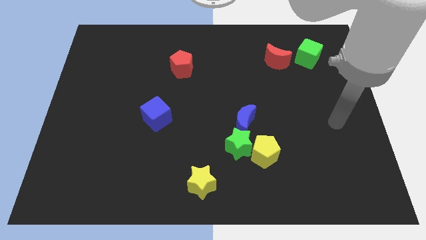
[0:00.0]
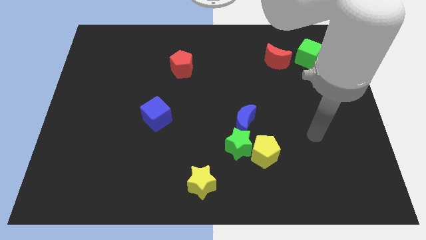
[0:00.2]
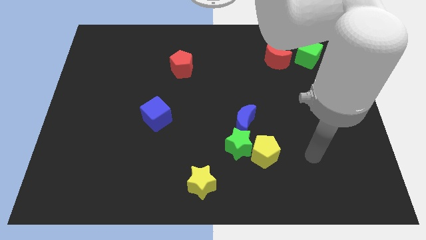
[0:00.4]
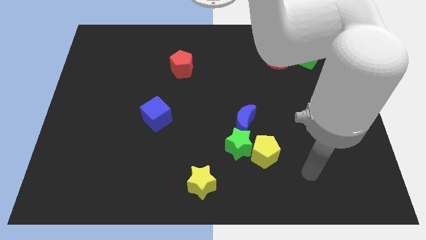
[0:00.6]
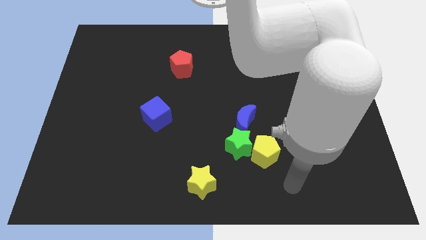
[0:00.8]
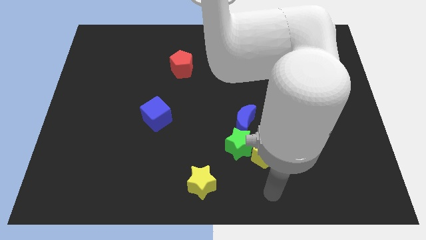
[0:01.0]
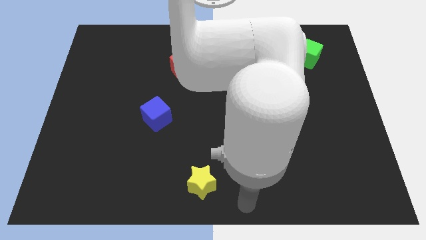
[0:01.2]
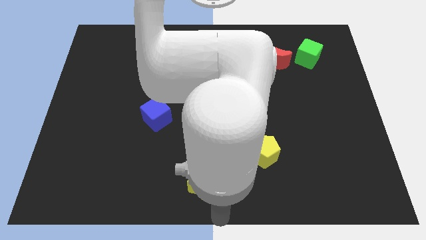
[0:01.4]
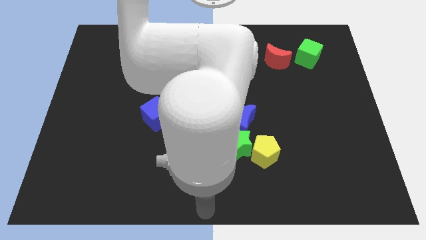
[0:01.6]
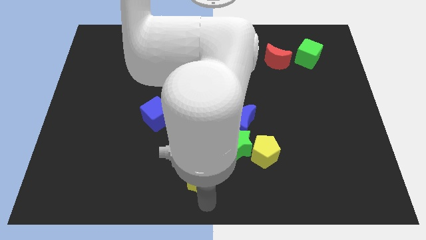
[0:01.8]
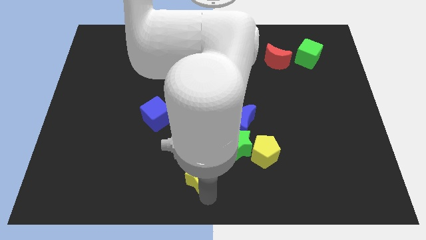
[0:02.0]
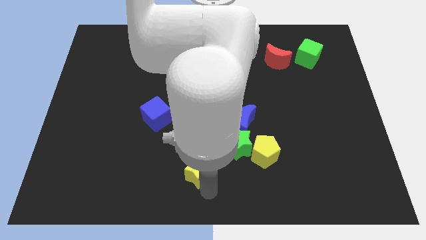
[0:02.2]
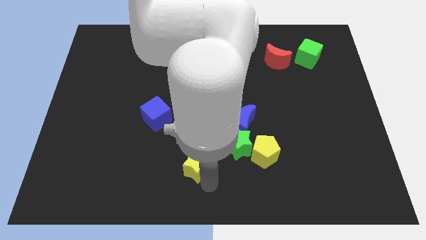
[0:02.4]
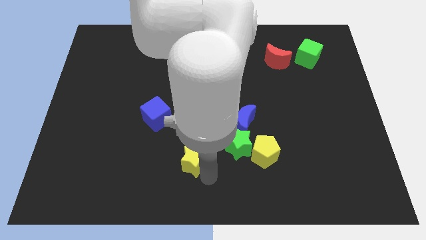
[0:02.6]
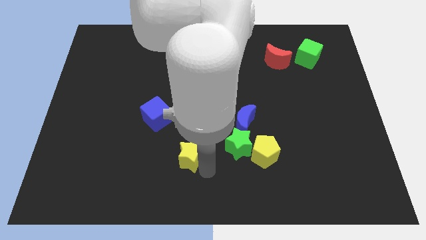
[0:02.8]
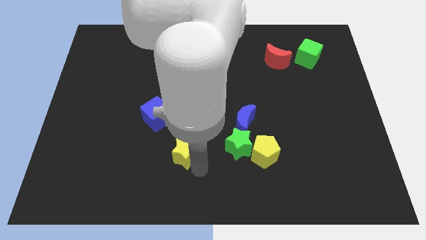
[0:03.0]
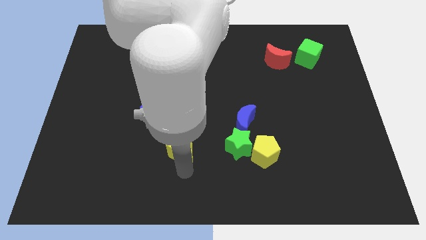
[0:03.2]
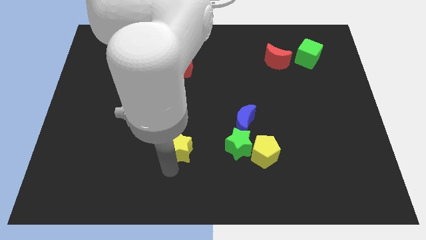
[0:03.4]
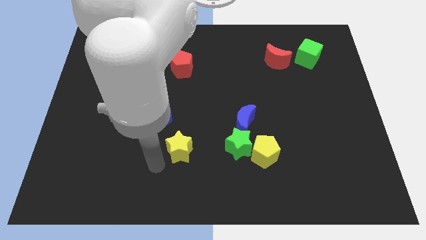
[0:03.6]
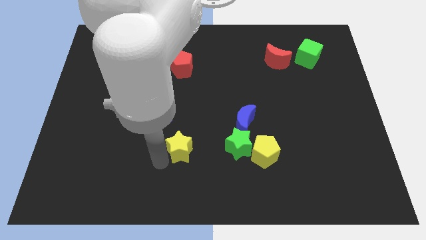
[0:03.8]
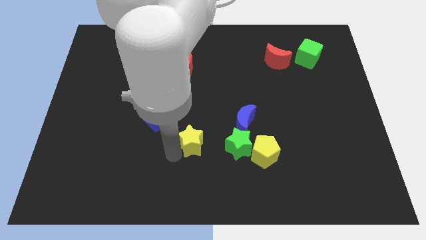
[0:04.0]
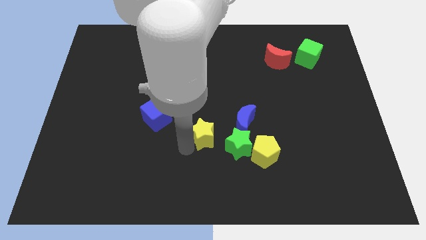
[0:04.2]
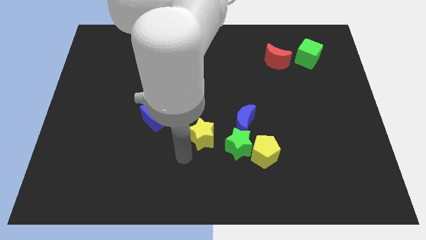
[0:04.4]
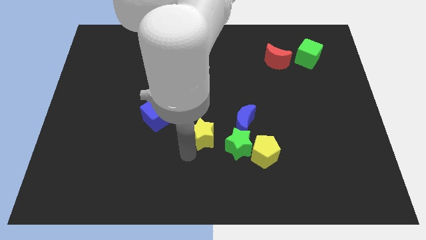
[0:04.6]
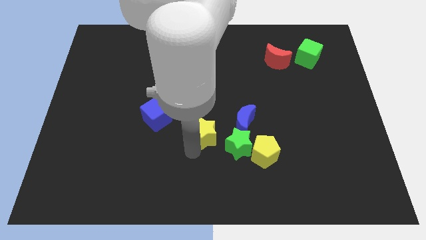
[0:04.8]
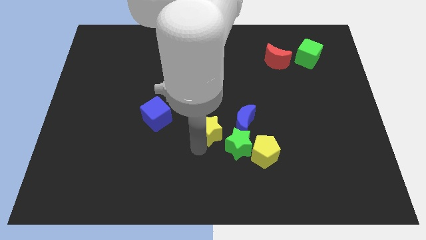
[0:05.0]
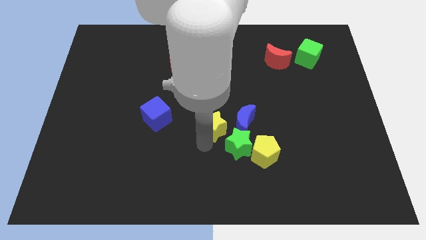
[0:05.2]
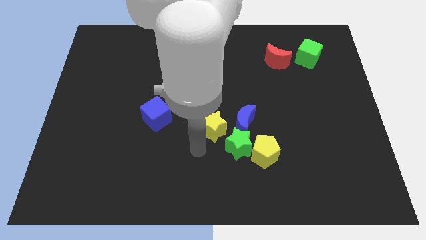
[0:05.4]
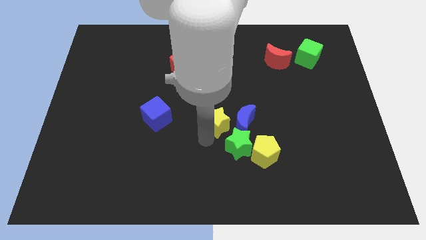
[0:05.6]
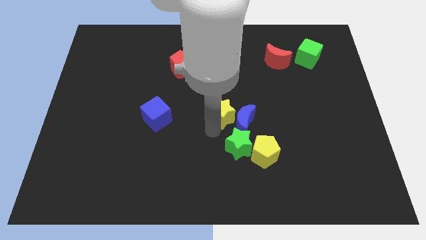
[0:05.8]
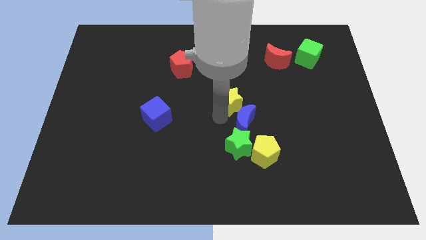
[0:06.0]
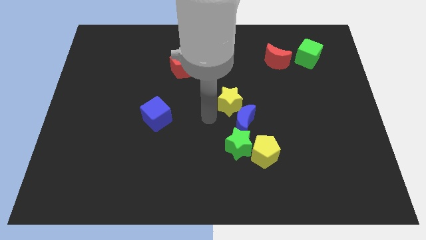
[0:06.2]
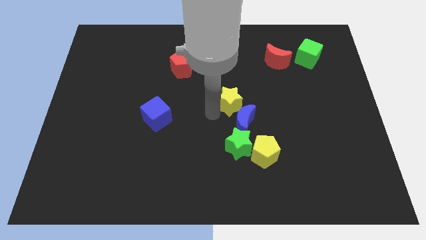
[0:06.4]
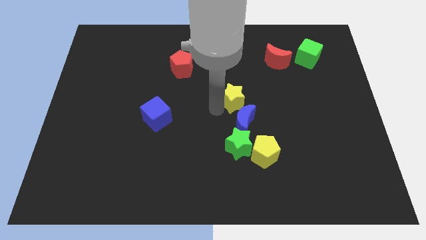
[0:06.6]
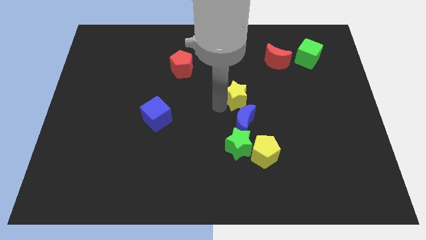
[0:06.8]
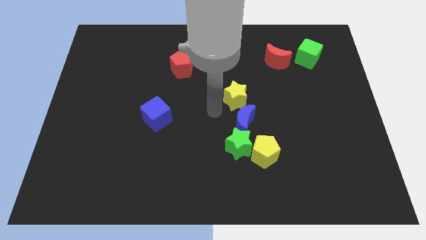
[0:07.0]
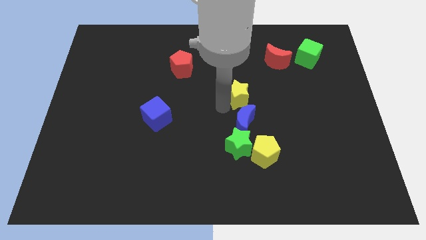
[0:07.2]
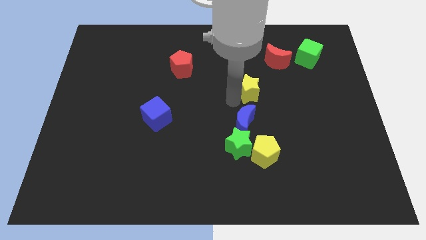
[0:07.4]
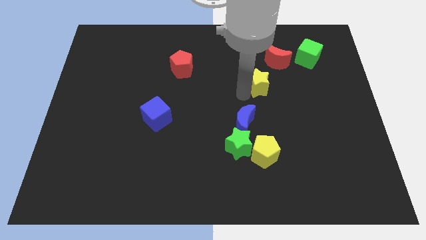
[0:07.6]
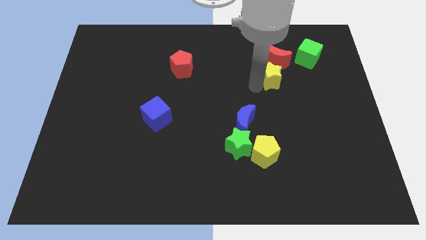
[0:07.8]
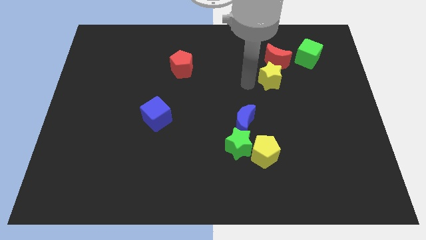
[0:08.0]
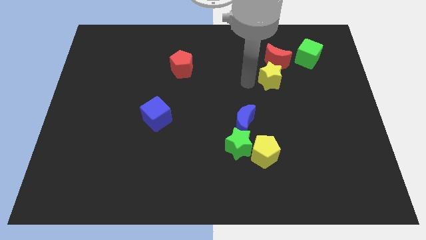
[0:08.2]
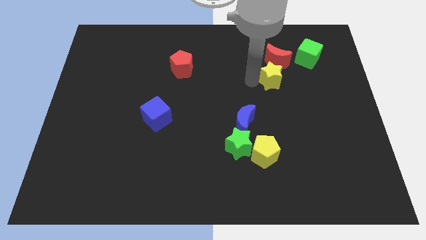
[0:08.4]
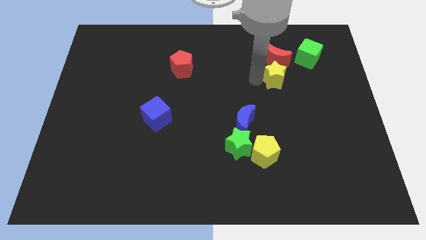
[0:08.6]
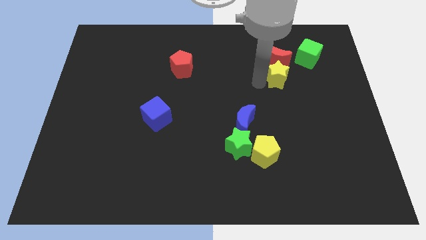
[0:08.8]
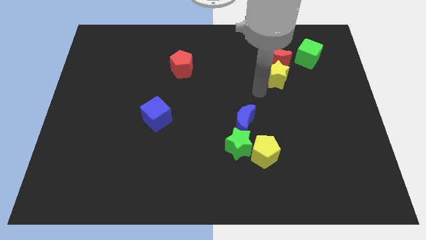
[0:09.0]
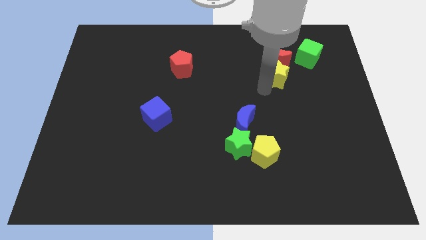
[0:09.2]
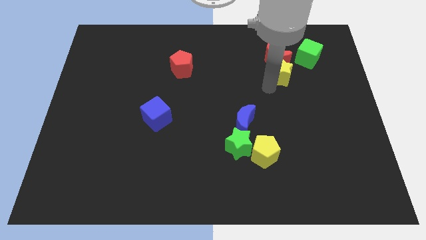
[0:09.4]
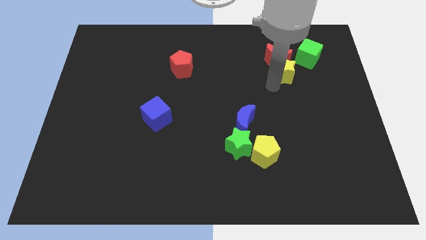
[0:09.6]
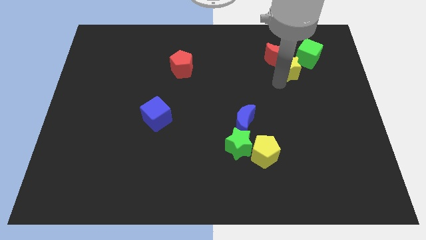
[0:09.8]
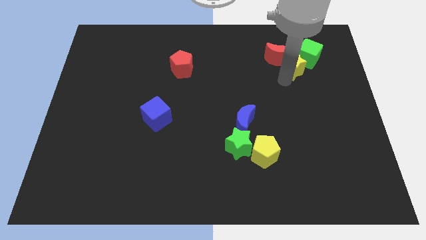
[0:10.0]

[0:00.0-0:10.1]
move the yellow star towards the green cube

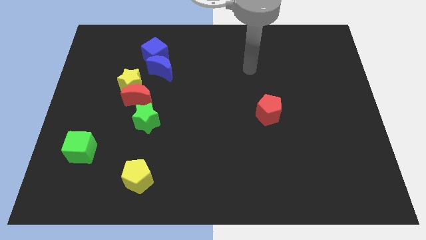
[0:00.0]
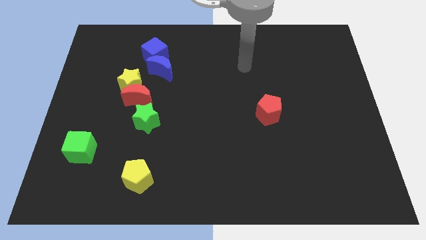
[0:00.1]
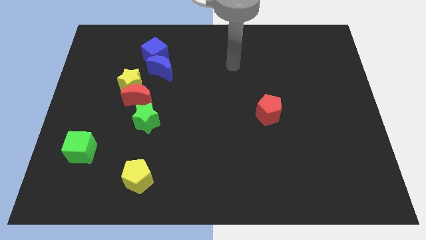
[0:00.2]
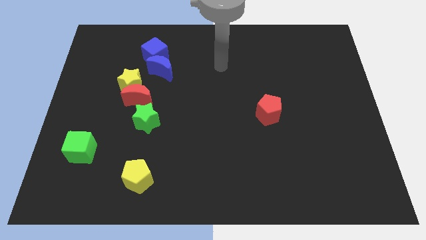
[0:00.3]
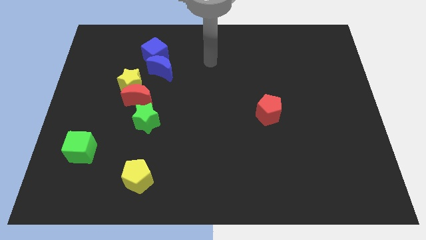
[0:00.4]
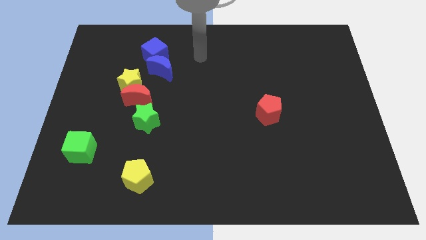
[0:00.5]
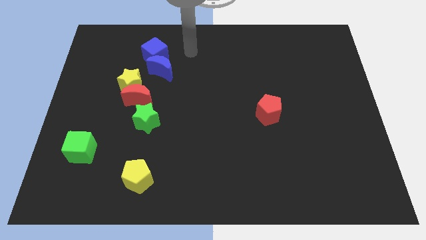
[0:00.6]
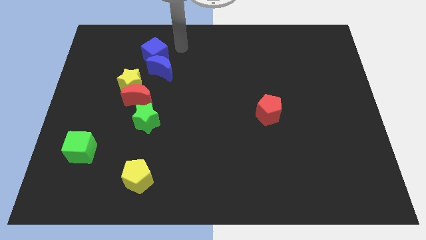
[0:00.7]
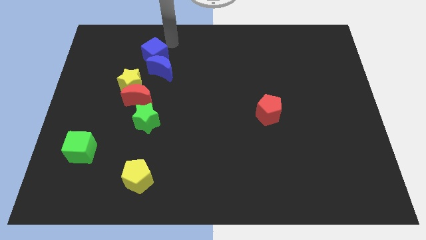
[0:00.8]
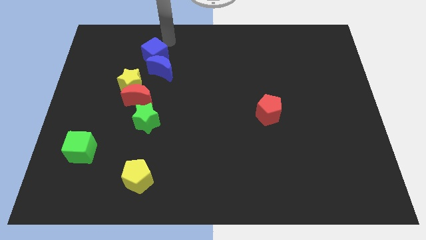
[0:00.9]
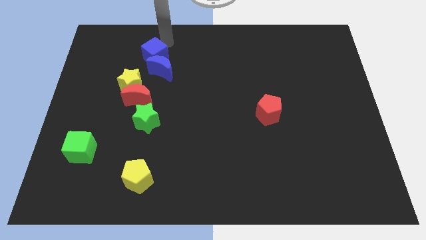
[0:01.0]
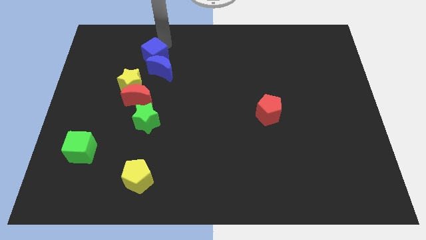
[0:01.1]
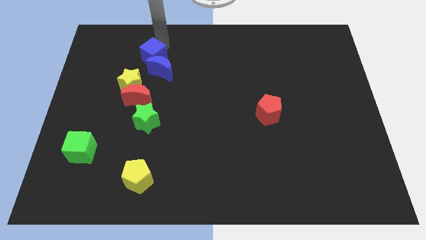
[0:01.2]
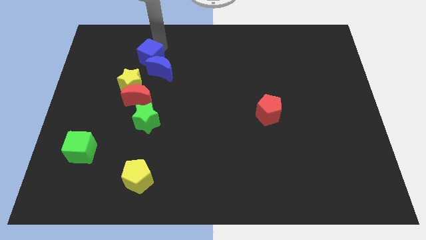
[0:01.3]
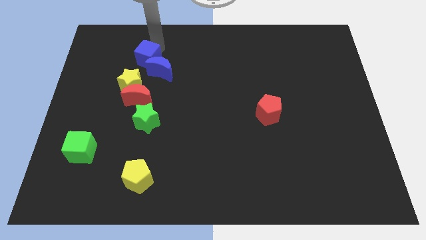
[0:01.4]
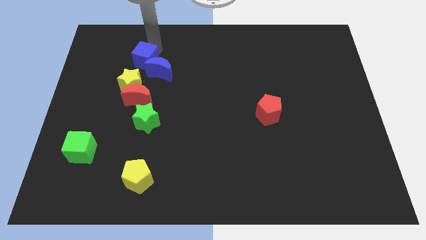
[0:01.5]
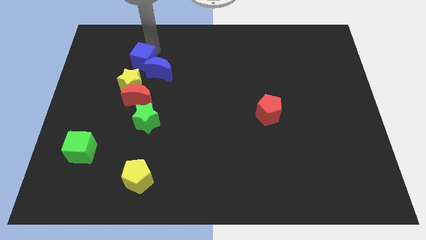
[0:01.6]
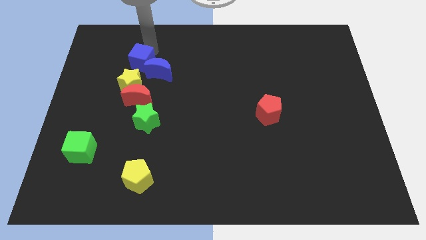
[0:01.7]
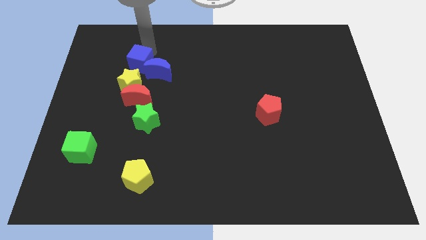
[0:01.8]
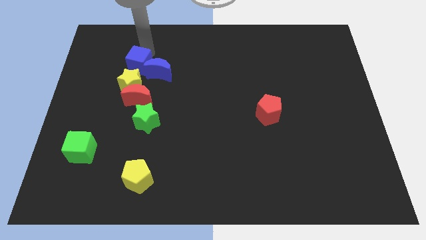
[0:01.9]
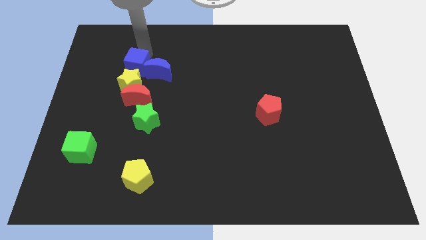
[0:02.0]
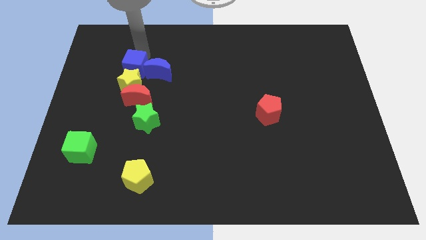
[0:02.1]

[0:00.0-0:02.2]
push the blue cube close to the yellow star
